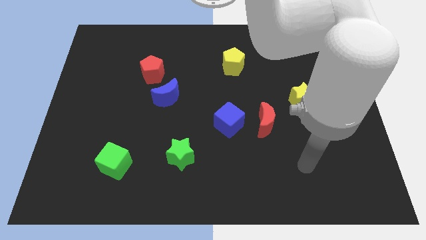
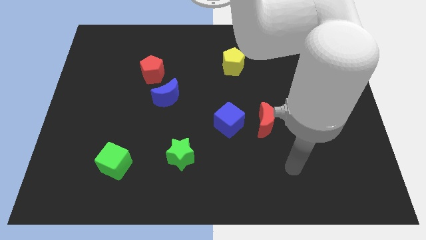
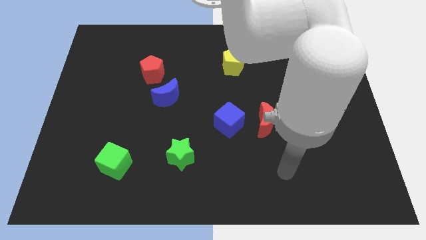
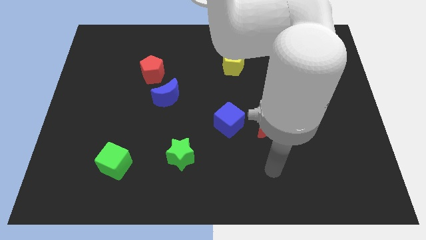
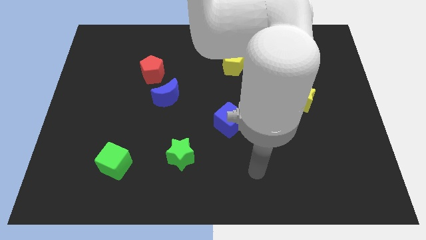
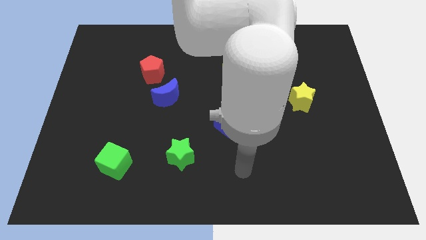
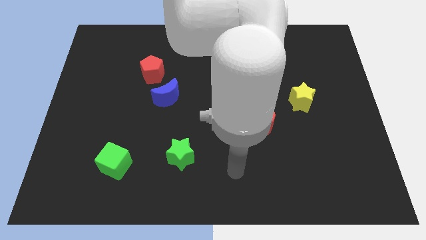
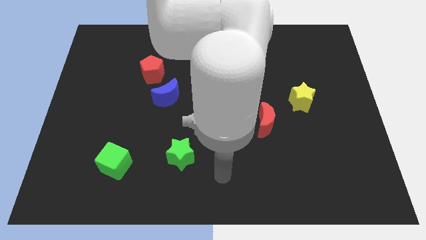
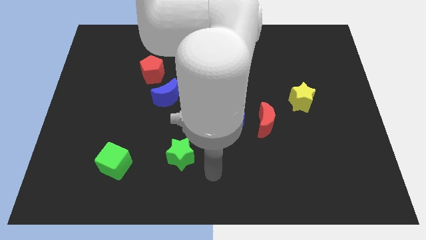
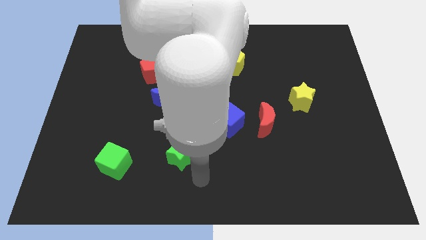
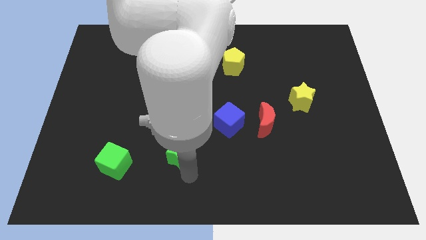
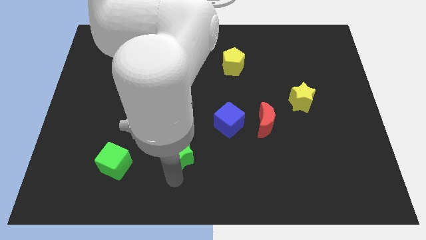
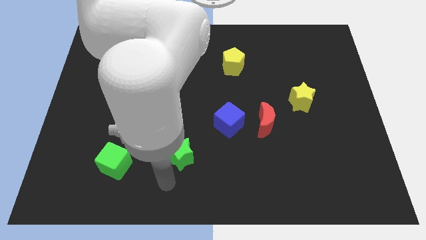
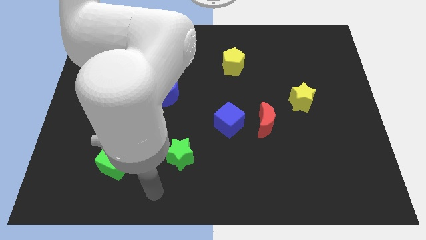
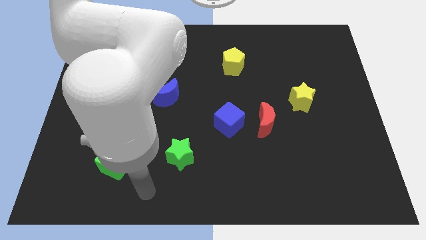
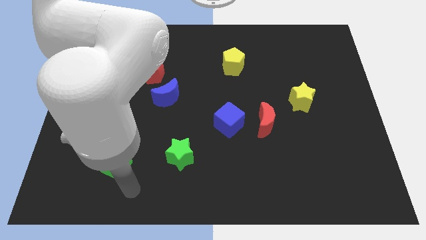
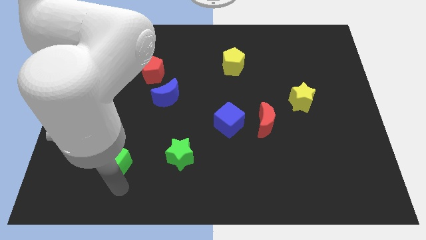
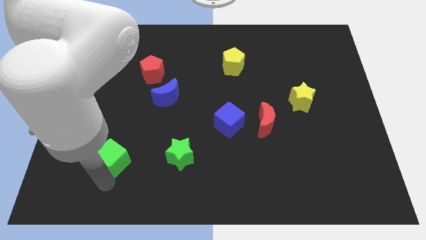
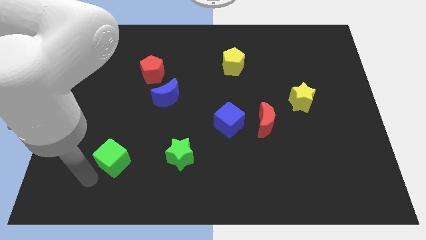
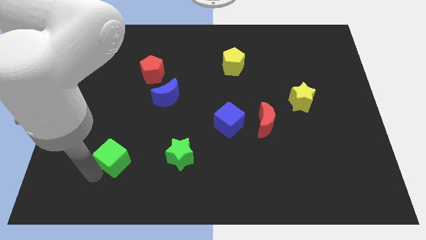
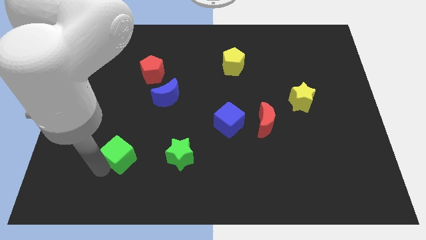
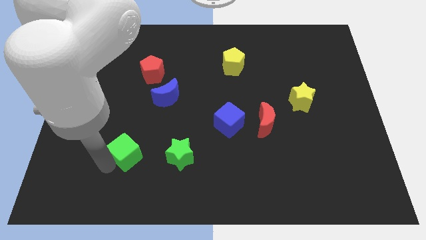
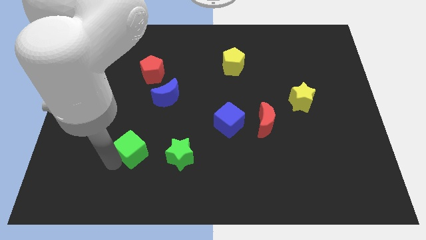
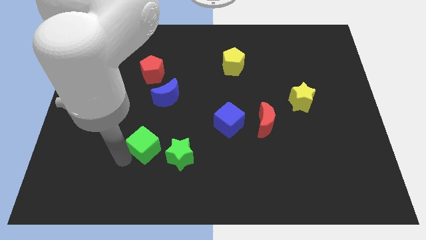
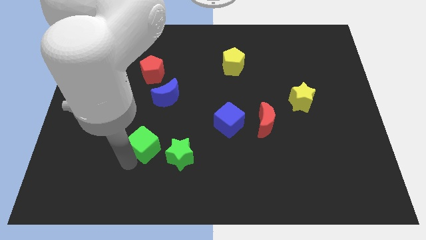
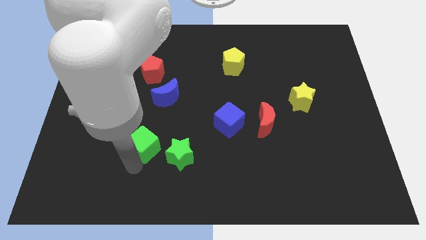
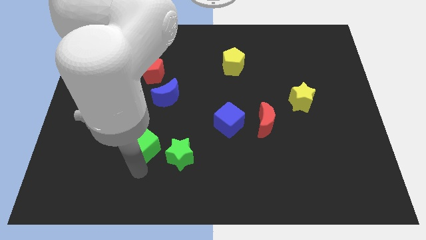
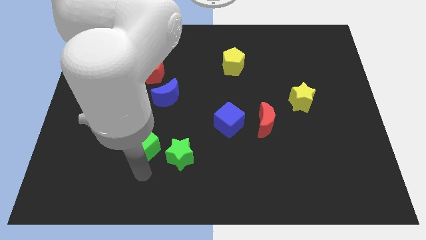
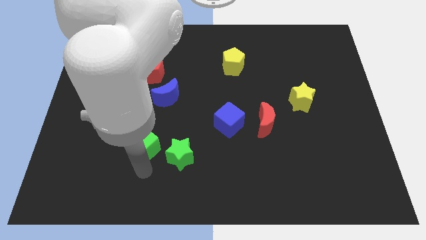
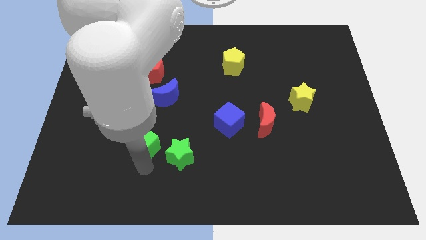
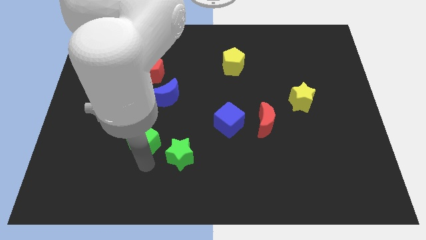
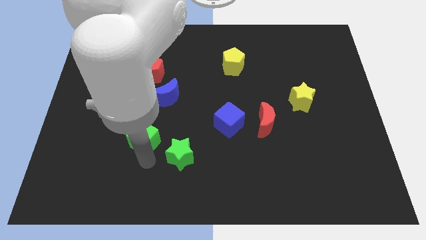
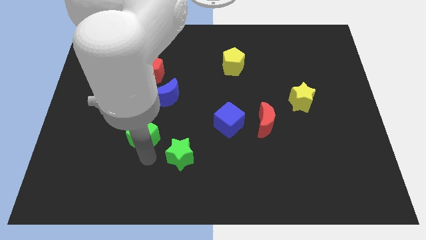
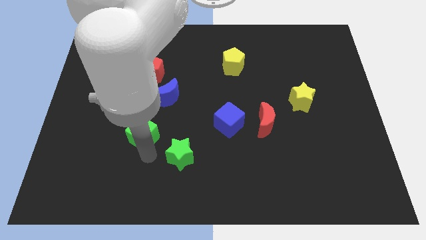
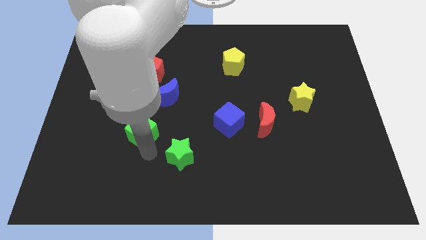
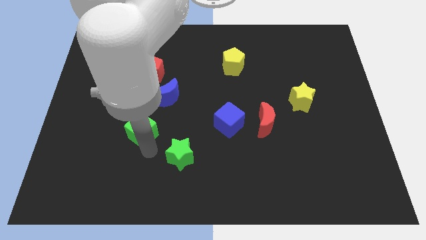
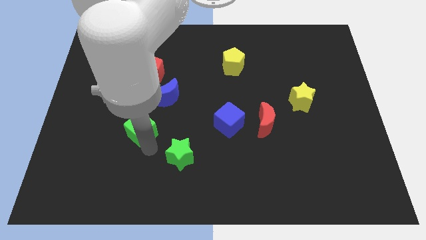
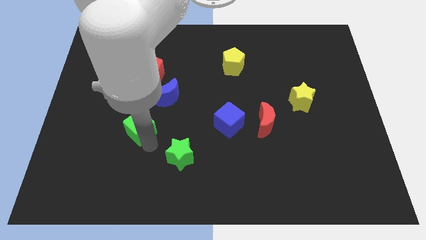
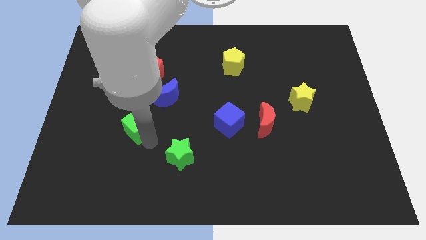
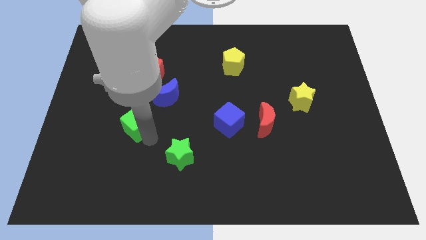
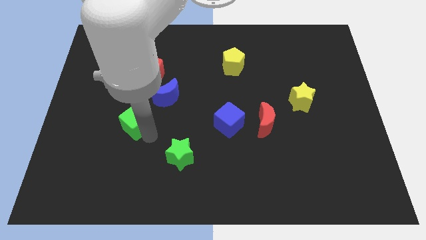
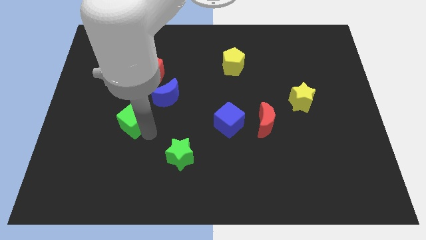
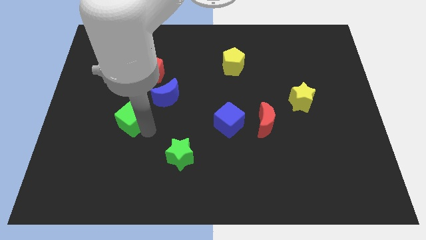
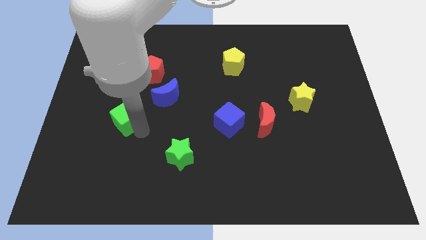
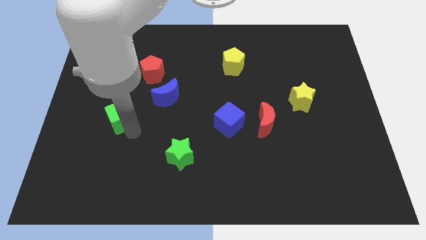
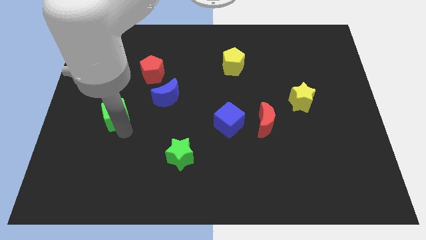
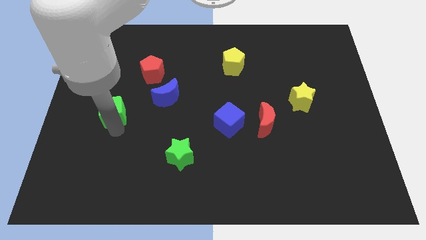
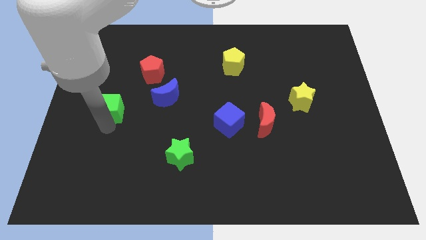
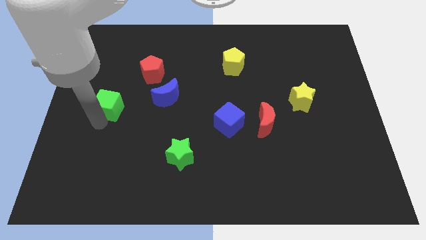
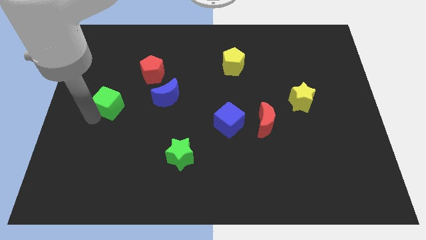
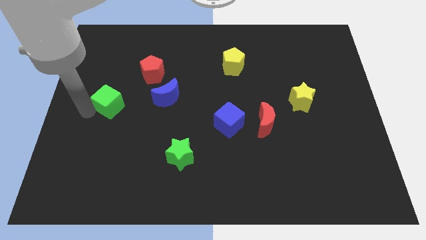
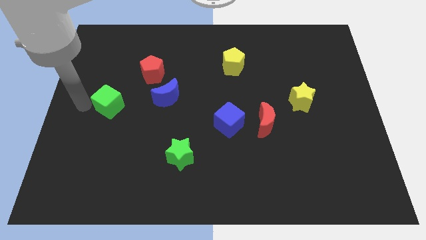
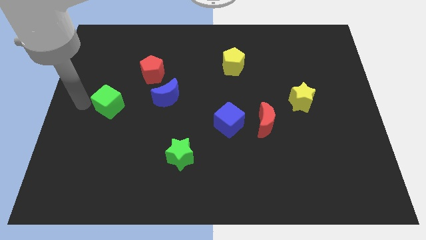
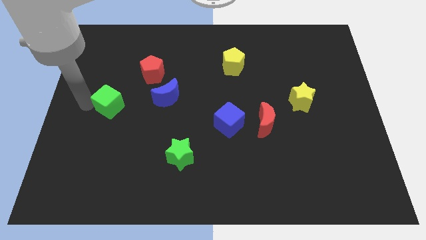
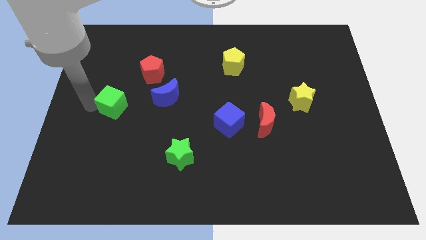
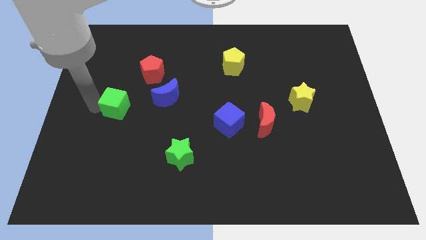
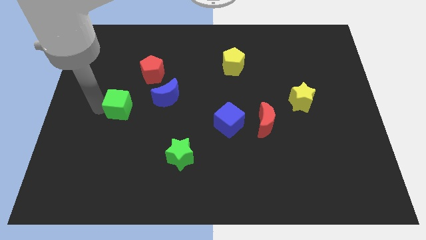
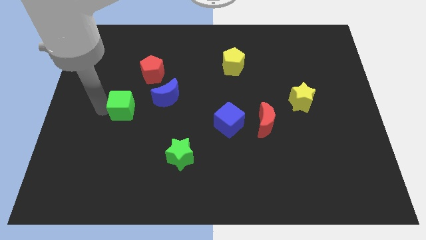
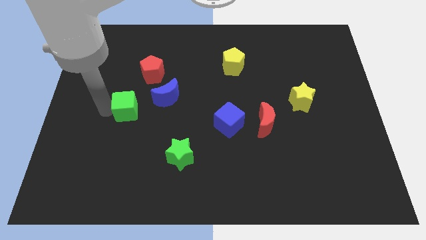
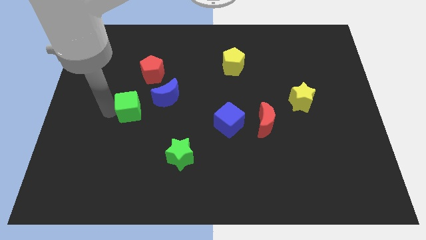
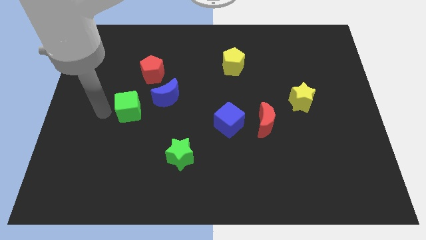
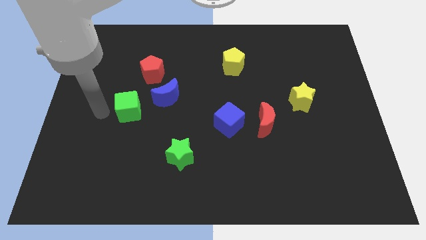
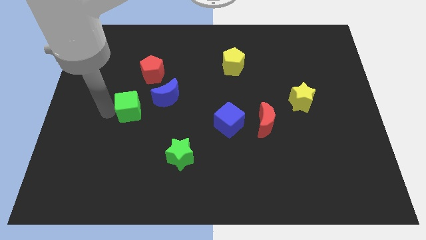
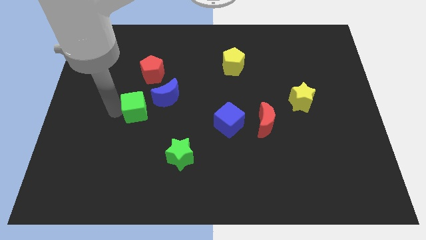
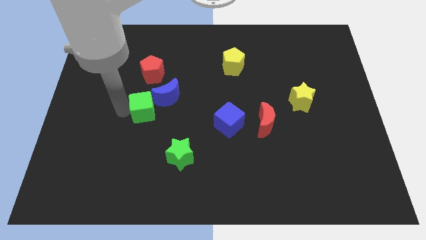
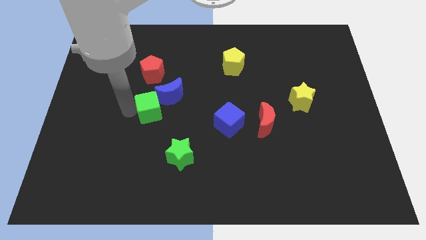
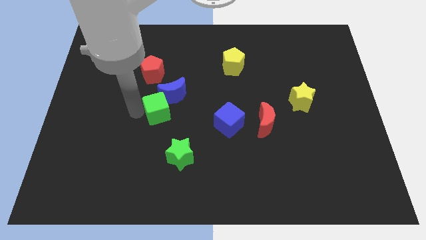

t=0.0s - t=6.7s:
slide the green cube next to the blue moon

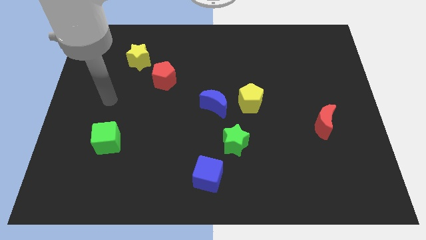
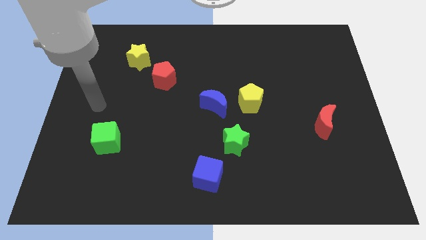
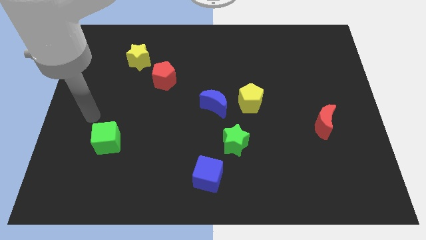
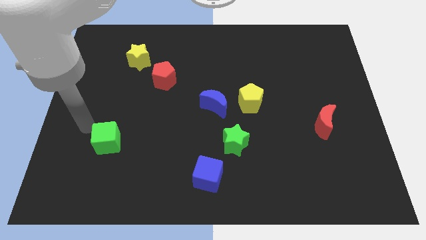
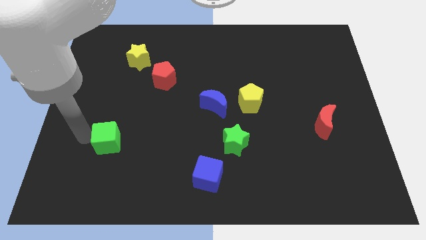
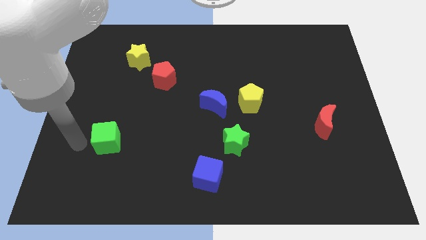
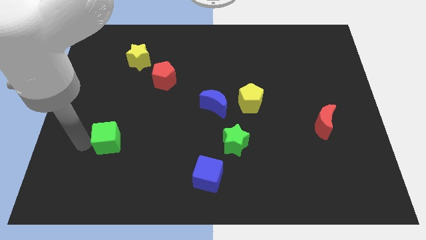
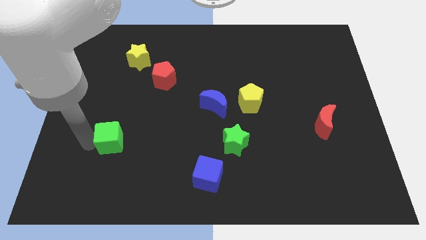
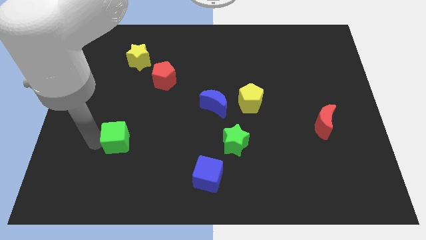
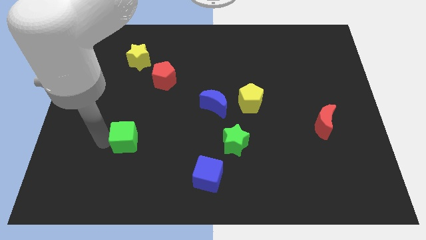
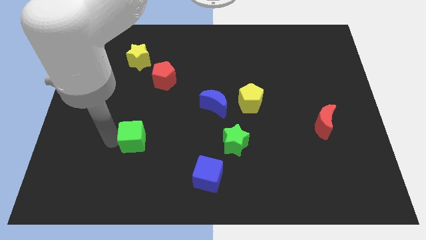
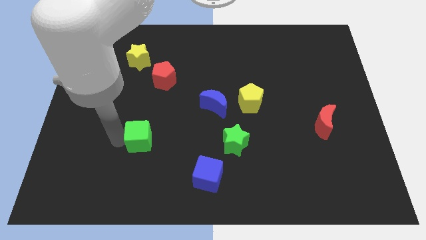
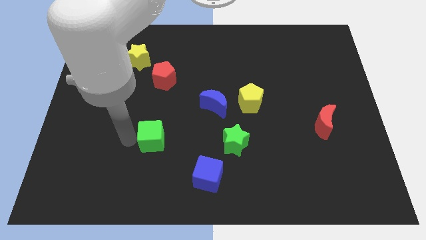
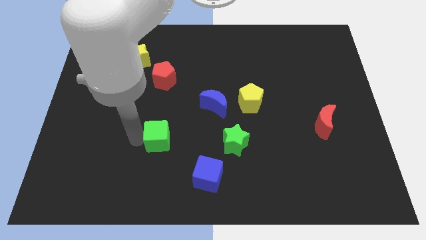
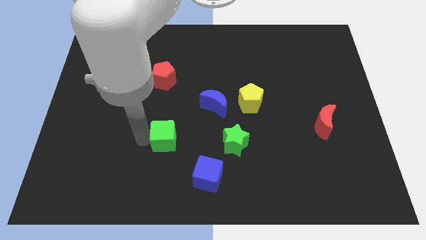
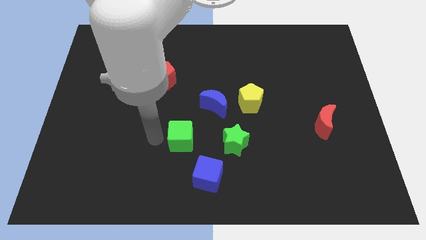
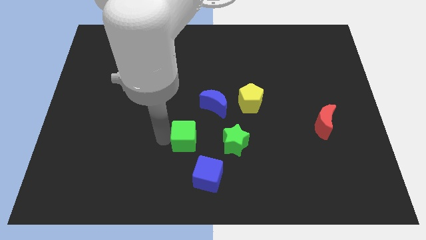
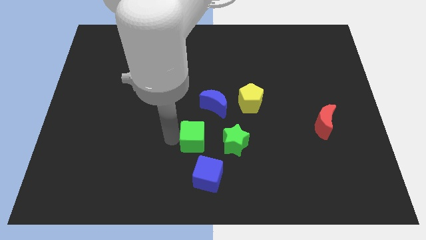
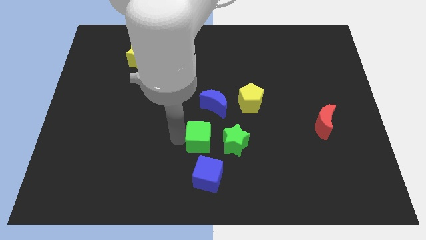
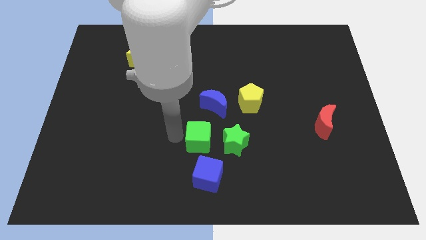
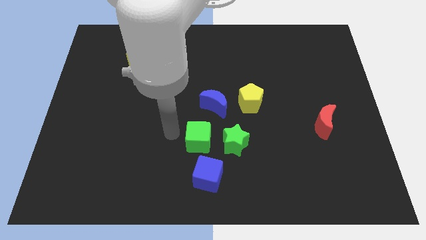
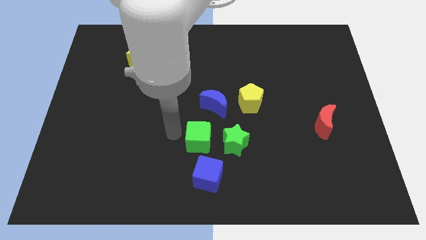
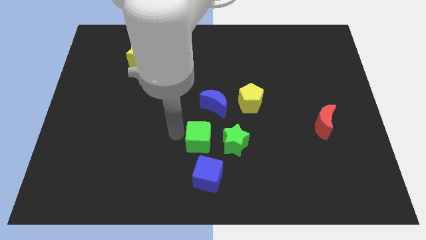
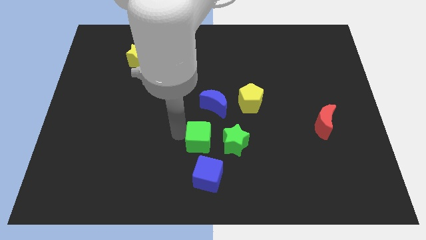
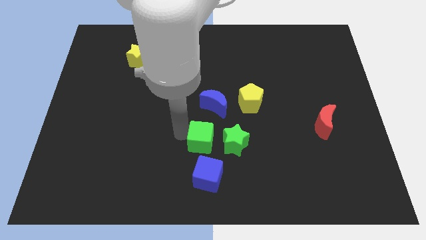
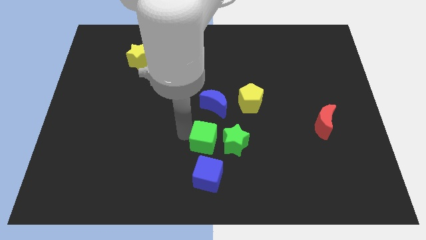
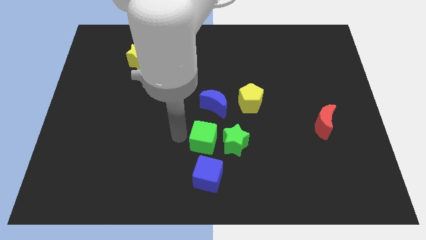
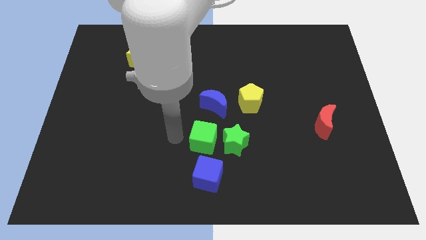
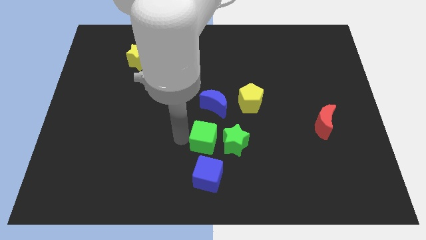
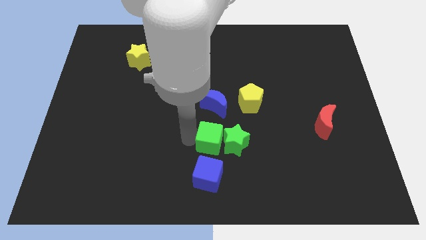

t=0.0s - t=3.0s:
slide the green cube towards the green star
